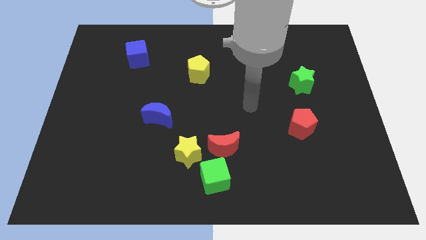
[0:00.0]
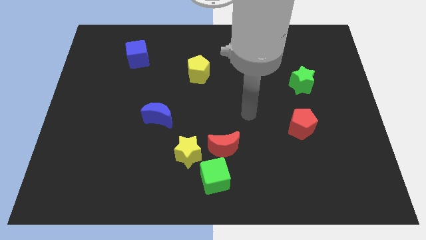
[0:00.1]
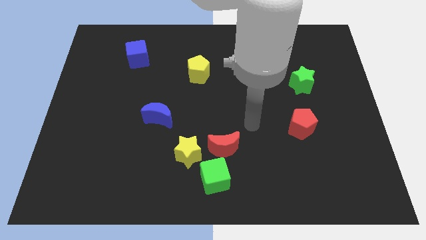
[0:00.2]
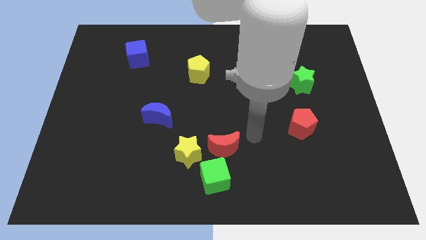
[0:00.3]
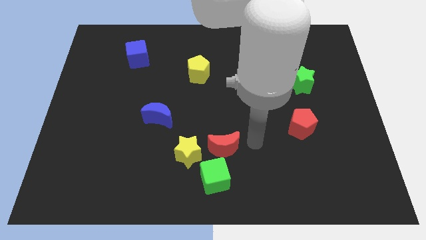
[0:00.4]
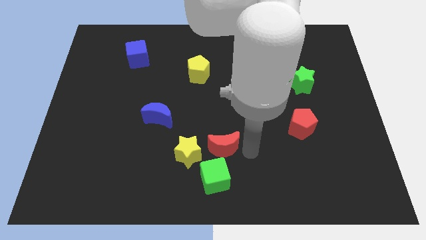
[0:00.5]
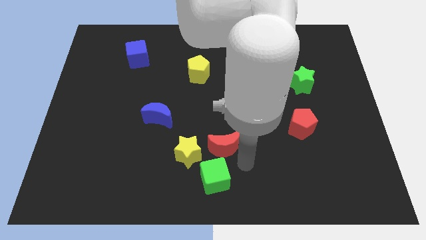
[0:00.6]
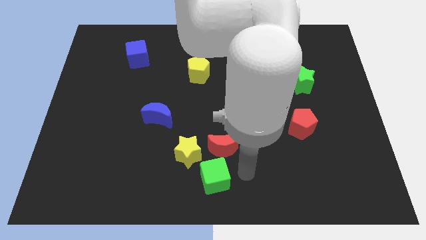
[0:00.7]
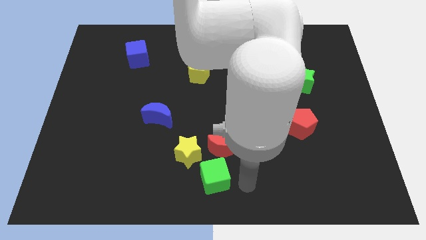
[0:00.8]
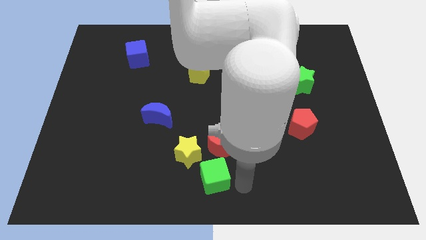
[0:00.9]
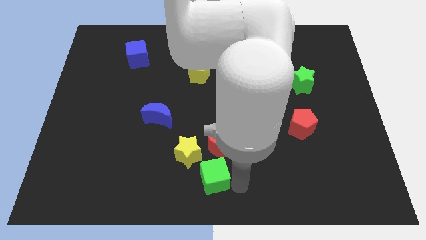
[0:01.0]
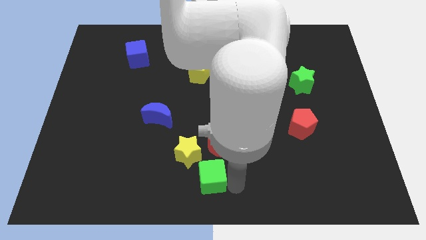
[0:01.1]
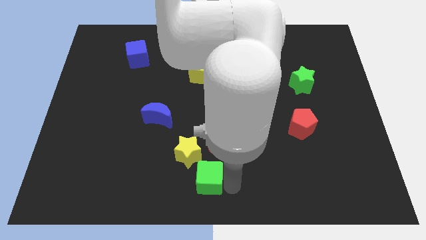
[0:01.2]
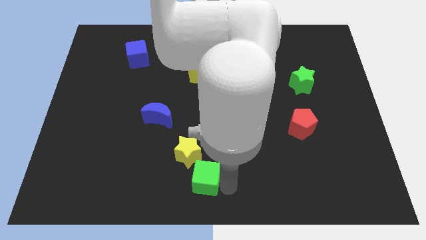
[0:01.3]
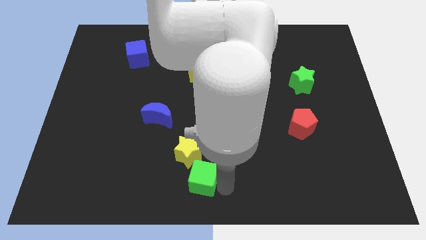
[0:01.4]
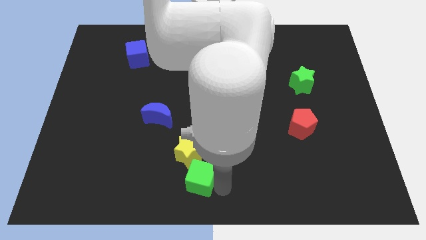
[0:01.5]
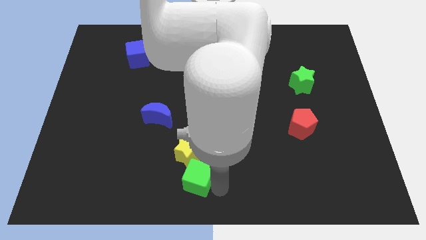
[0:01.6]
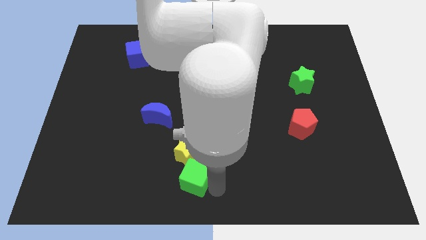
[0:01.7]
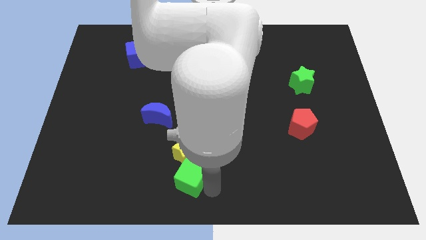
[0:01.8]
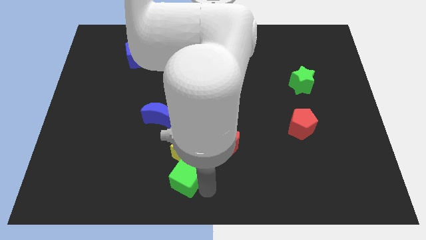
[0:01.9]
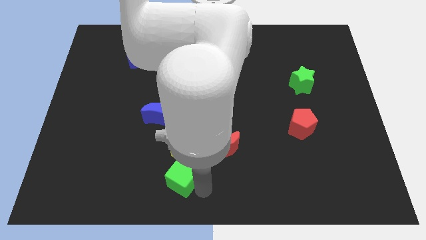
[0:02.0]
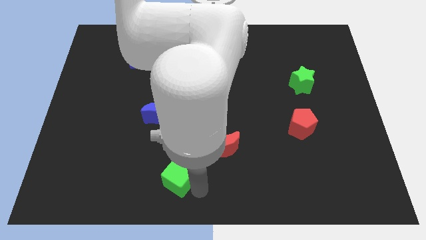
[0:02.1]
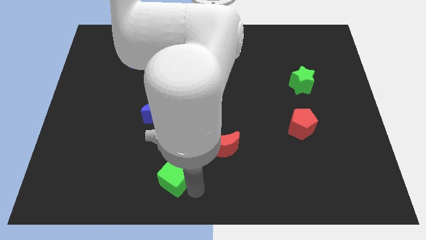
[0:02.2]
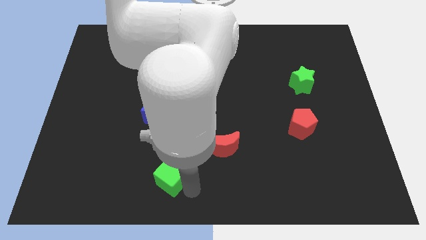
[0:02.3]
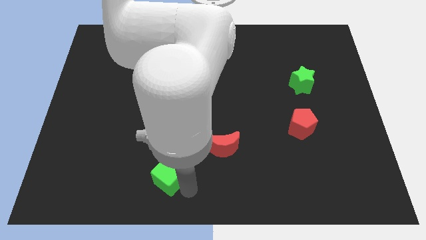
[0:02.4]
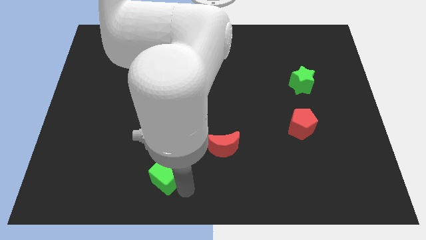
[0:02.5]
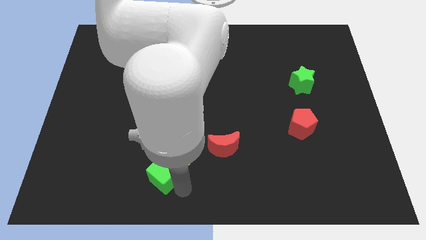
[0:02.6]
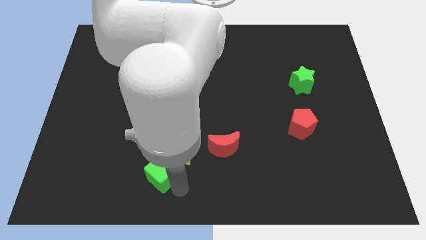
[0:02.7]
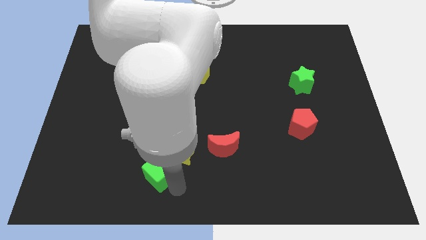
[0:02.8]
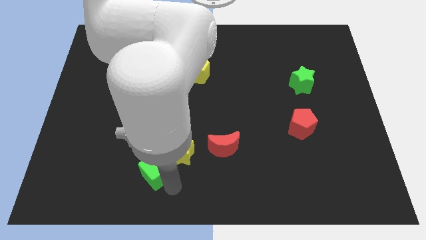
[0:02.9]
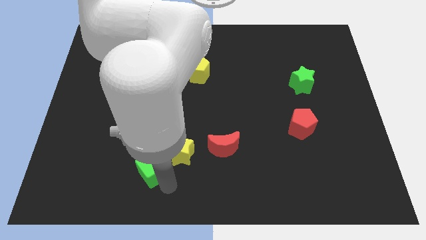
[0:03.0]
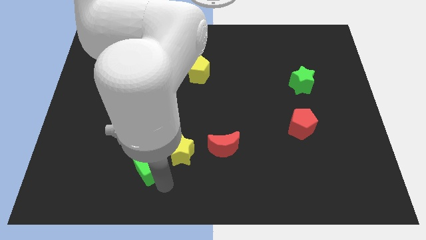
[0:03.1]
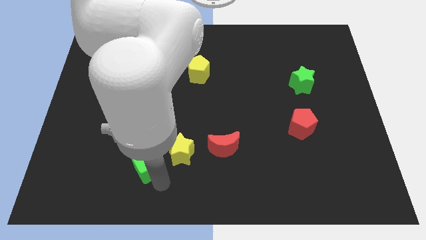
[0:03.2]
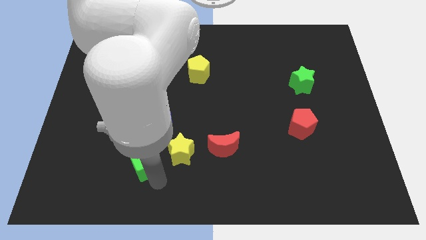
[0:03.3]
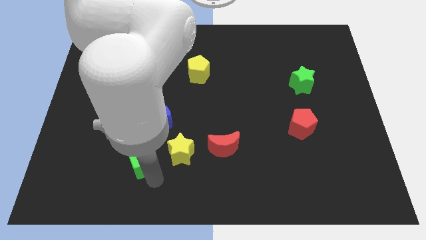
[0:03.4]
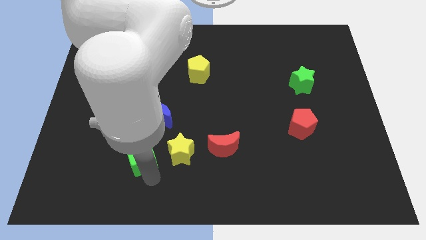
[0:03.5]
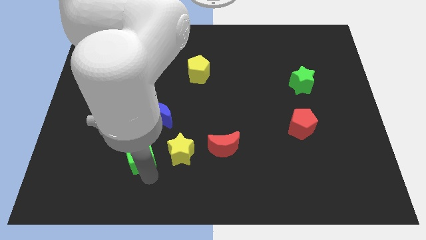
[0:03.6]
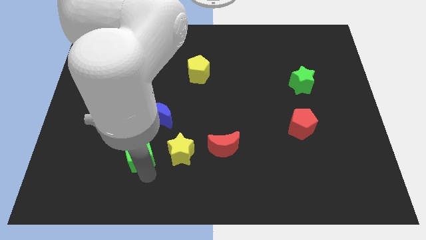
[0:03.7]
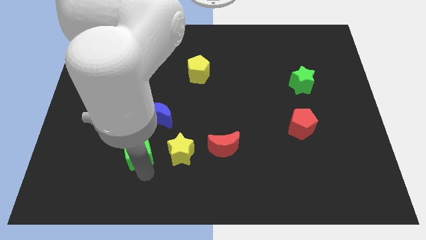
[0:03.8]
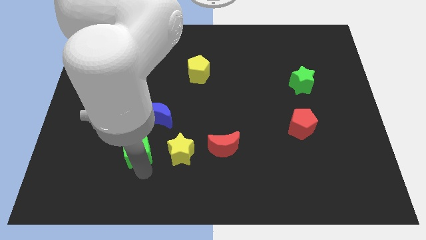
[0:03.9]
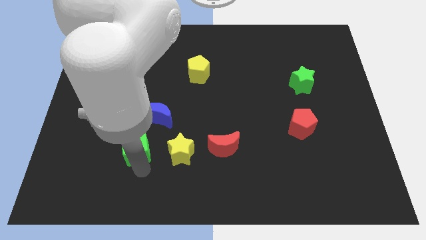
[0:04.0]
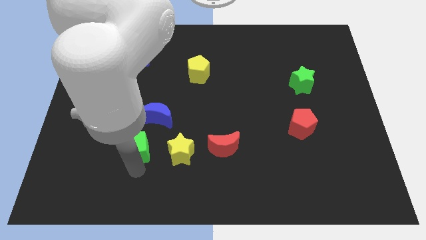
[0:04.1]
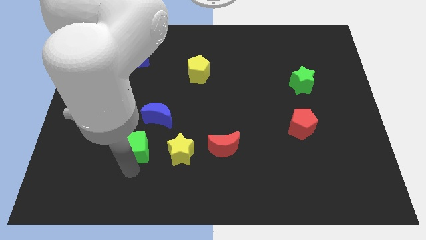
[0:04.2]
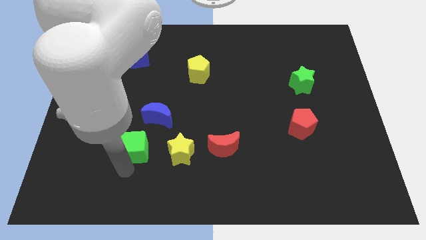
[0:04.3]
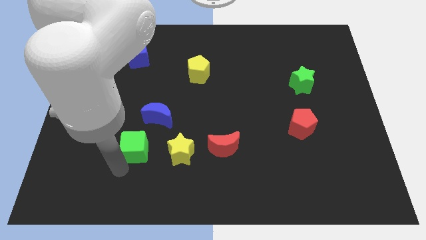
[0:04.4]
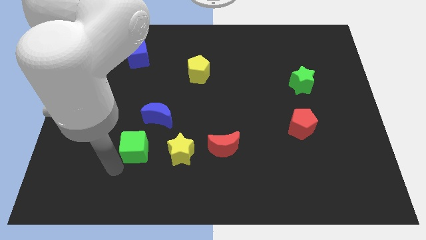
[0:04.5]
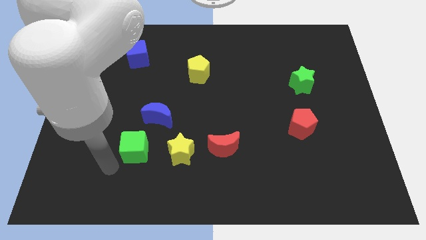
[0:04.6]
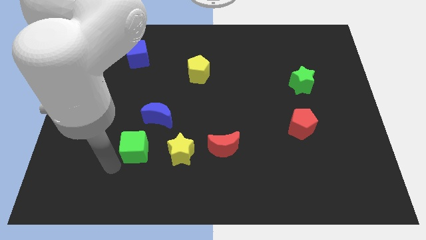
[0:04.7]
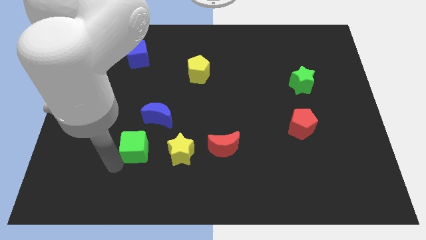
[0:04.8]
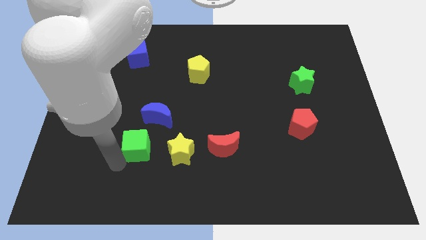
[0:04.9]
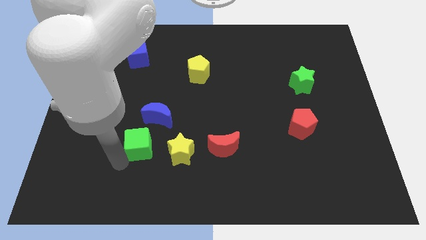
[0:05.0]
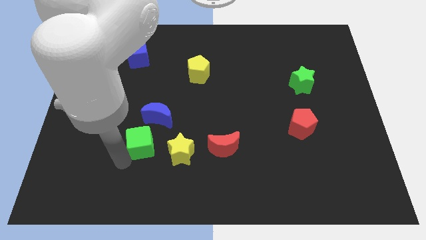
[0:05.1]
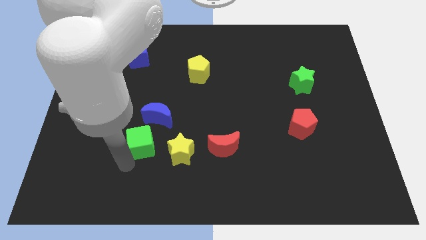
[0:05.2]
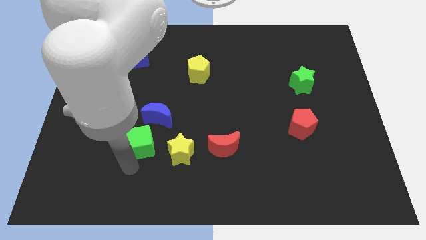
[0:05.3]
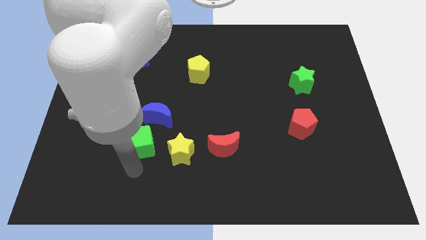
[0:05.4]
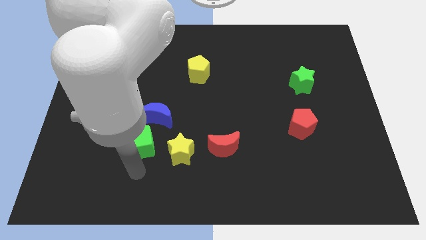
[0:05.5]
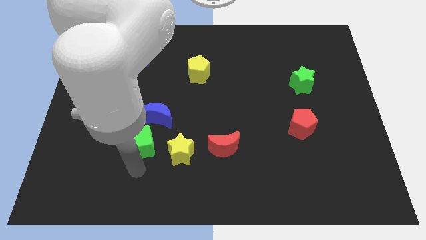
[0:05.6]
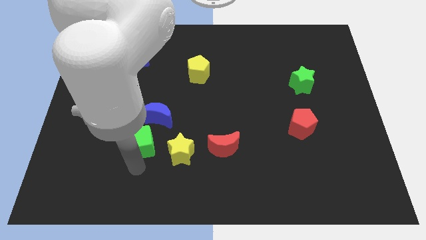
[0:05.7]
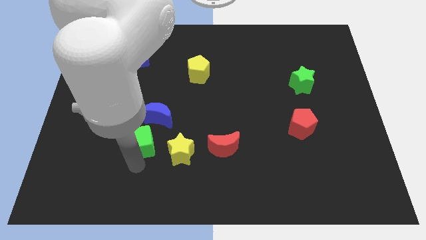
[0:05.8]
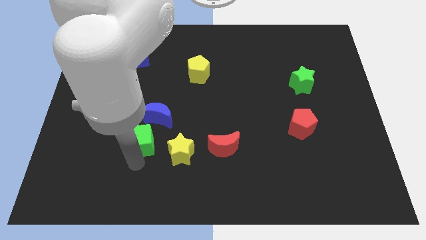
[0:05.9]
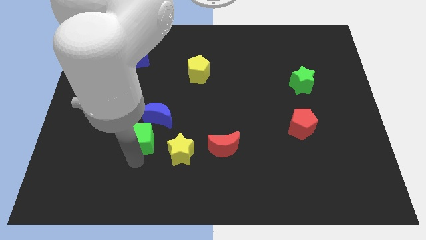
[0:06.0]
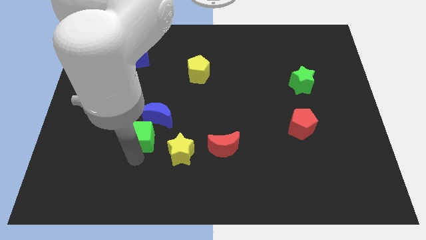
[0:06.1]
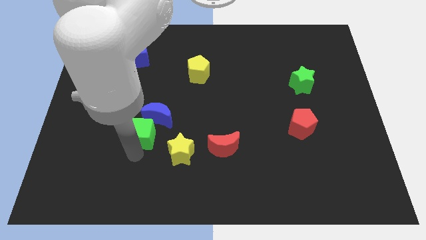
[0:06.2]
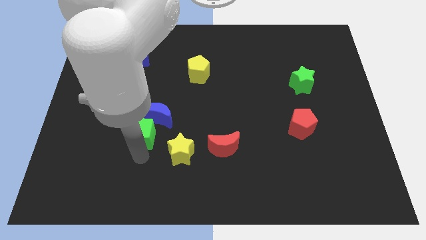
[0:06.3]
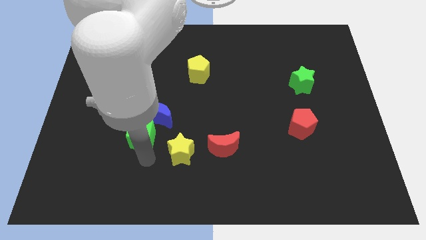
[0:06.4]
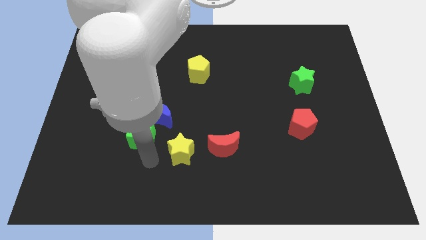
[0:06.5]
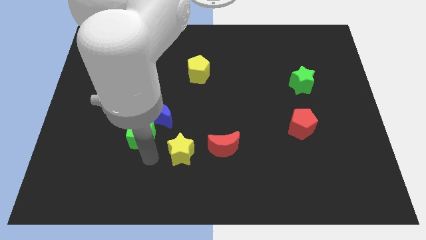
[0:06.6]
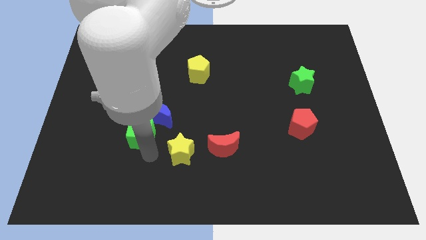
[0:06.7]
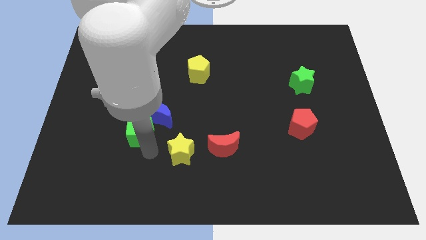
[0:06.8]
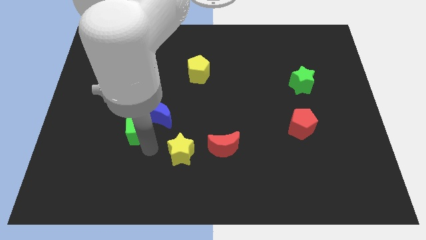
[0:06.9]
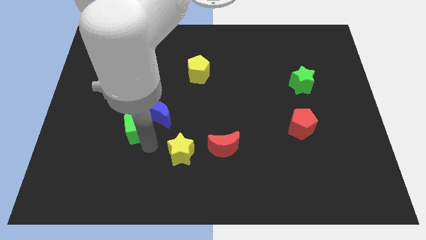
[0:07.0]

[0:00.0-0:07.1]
push the green cube upwards and then to the left

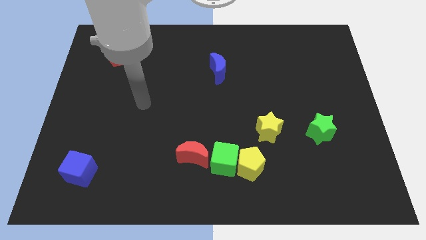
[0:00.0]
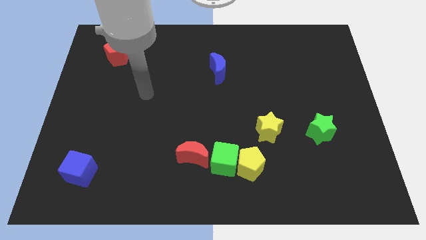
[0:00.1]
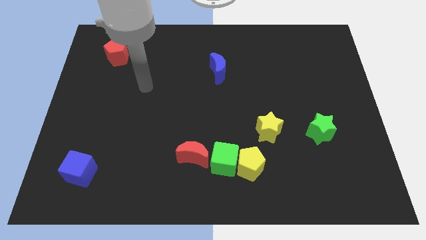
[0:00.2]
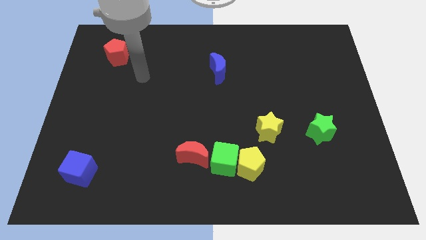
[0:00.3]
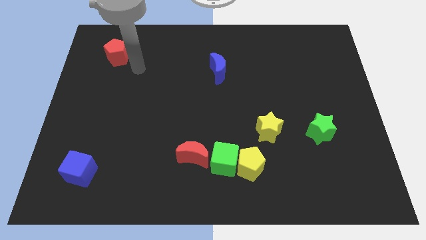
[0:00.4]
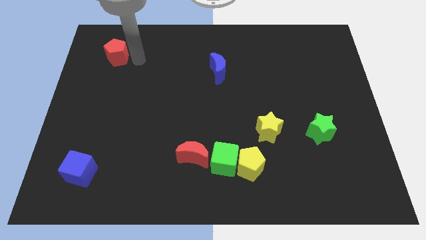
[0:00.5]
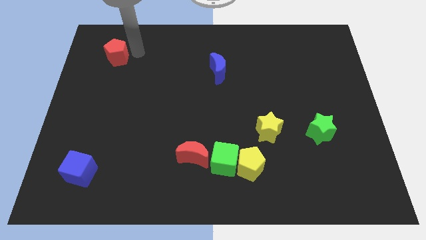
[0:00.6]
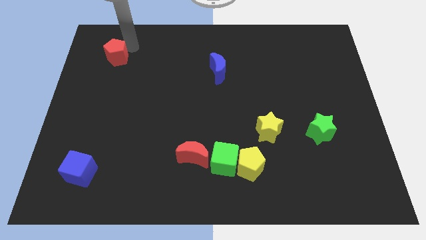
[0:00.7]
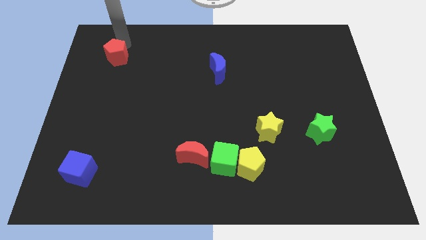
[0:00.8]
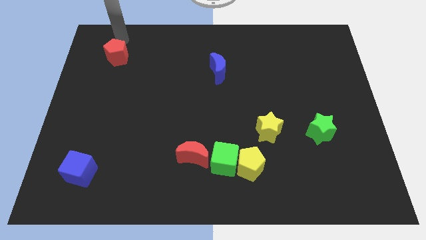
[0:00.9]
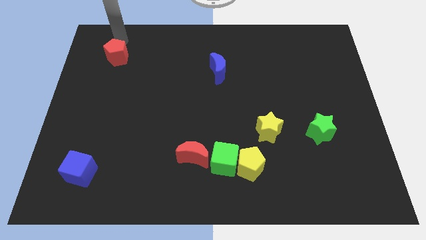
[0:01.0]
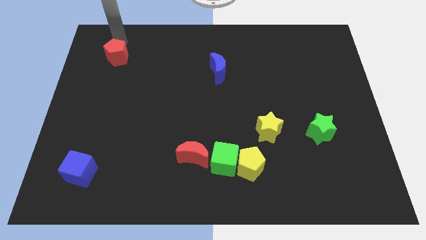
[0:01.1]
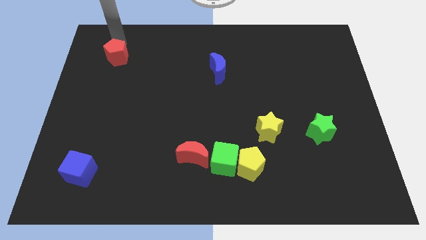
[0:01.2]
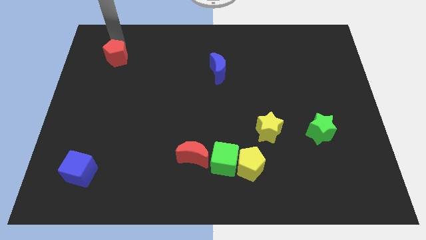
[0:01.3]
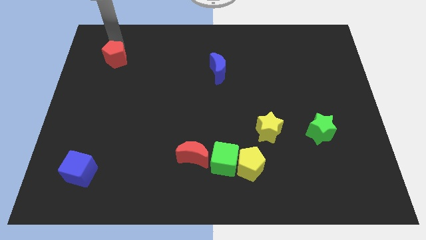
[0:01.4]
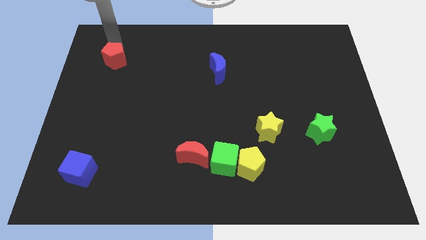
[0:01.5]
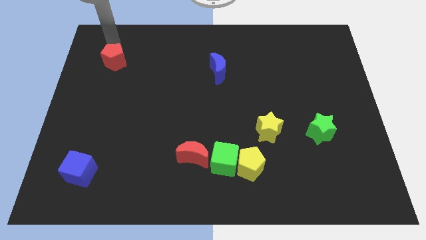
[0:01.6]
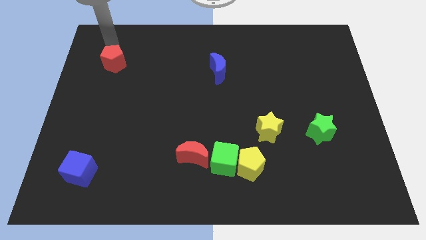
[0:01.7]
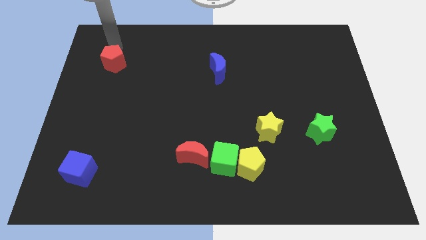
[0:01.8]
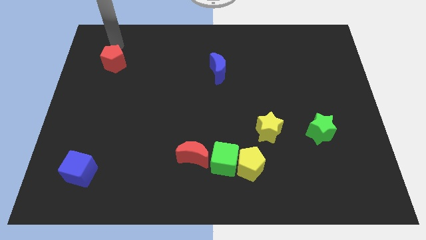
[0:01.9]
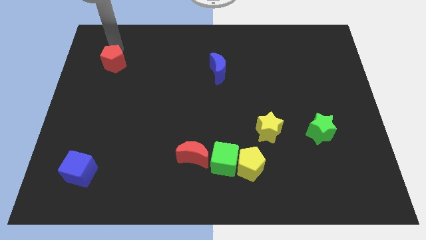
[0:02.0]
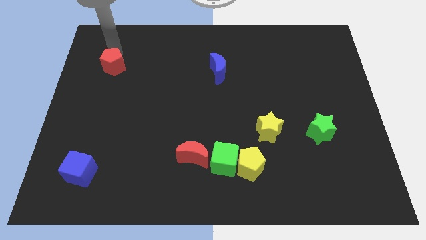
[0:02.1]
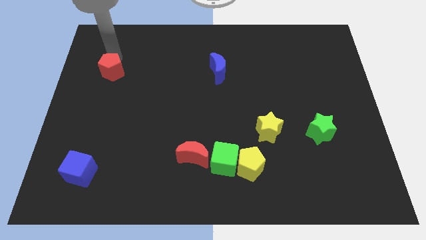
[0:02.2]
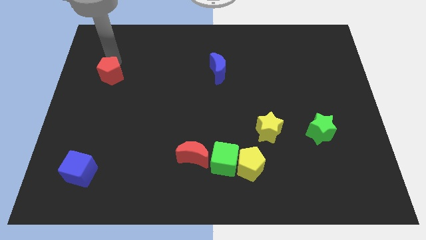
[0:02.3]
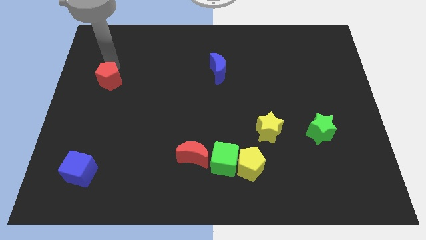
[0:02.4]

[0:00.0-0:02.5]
move the red pentagon a little bit down
